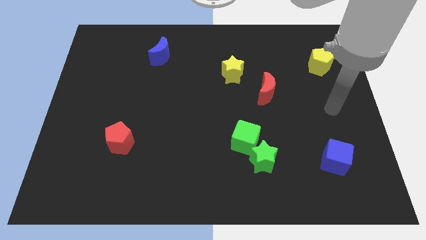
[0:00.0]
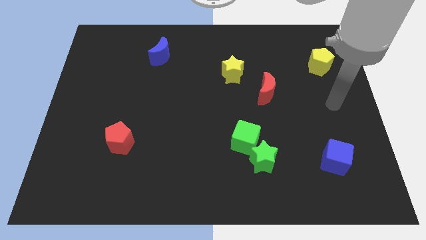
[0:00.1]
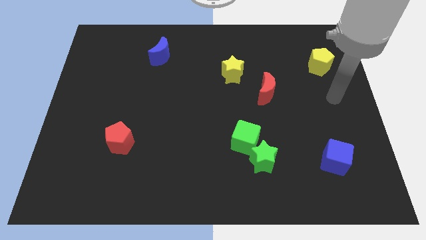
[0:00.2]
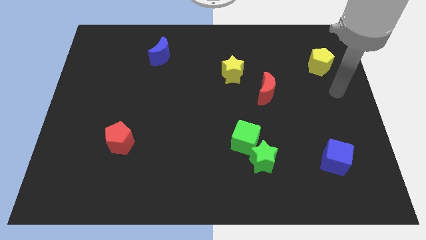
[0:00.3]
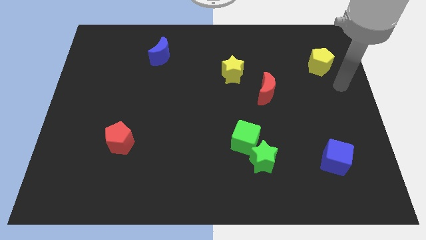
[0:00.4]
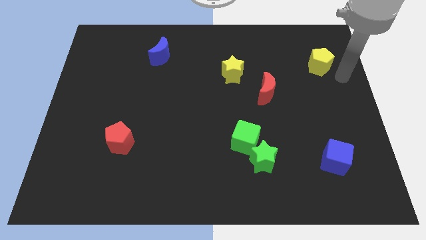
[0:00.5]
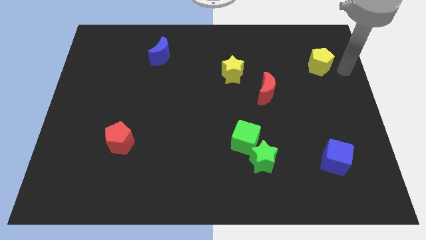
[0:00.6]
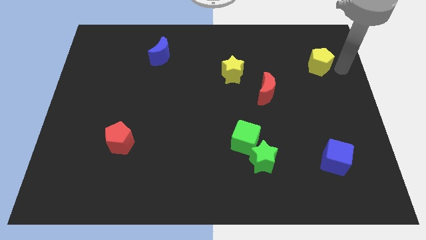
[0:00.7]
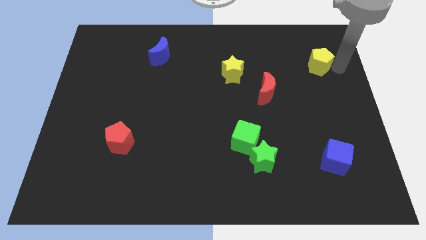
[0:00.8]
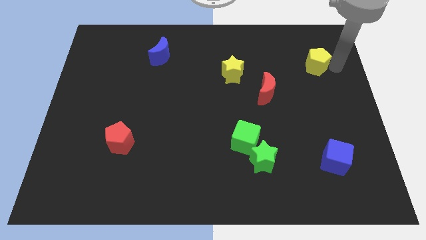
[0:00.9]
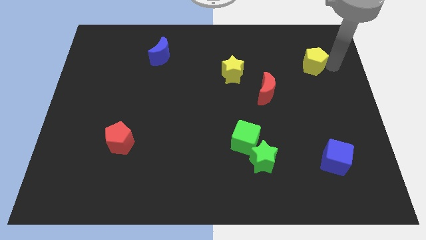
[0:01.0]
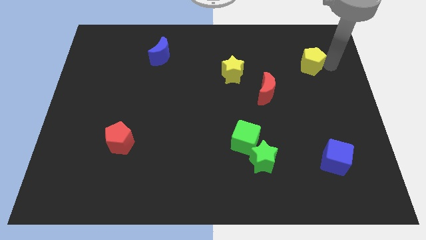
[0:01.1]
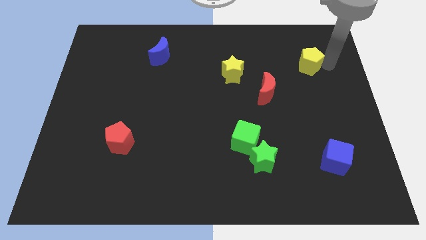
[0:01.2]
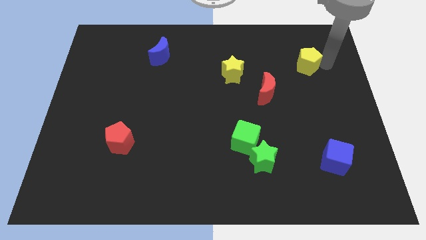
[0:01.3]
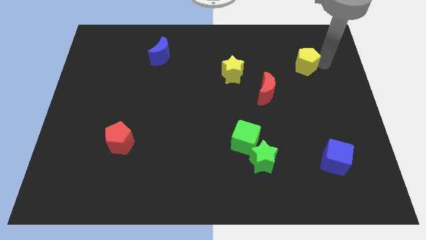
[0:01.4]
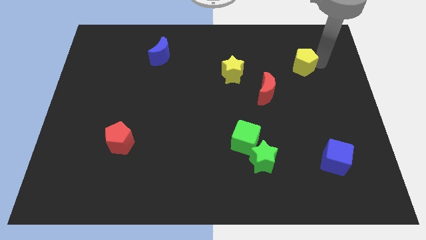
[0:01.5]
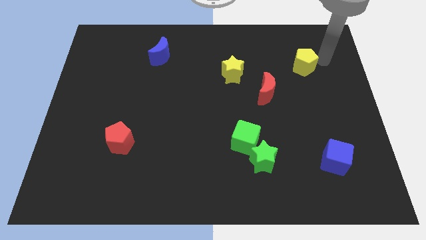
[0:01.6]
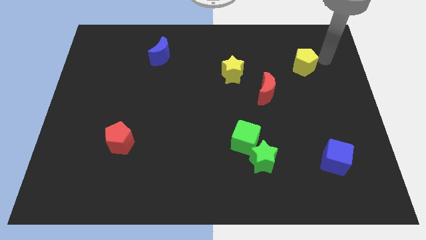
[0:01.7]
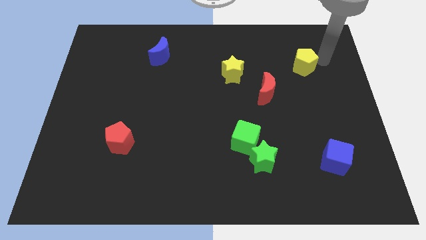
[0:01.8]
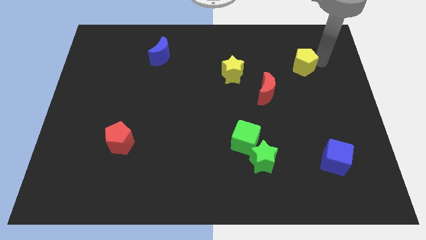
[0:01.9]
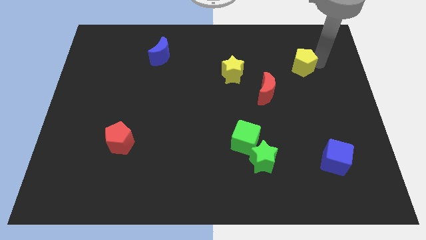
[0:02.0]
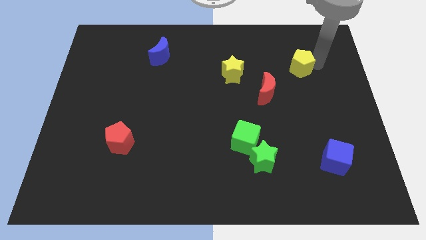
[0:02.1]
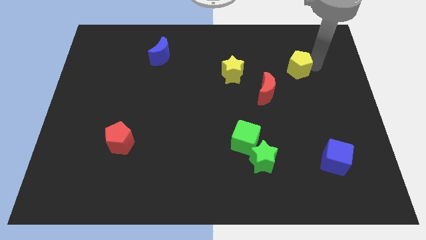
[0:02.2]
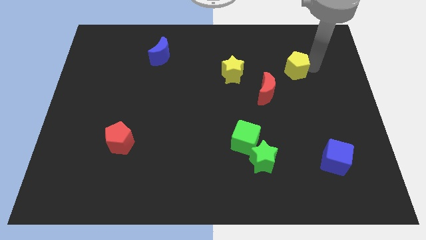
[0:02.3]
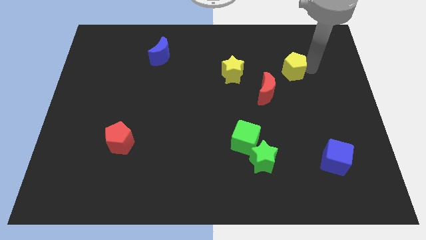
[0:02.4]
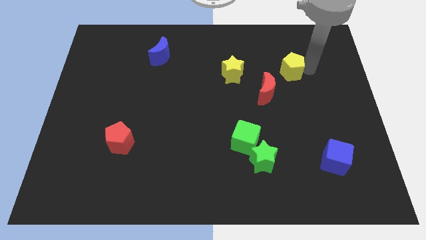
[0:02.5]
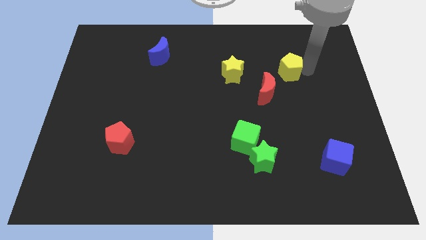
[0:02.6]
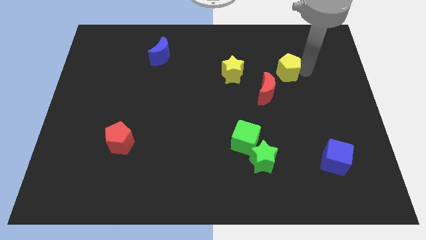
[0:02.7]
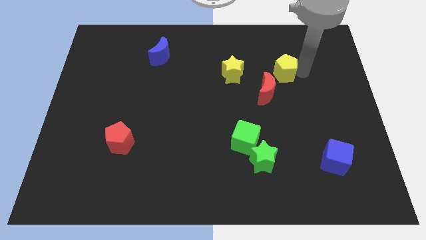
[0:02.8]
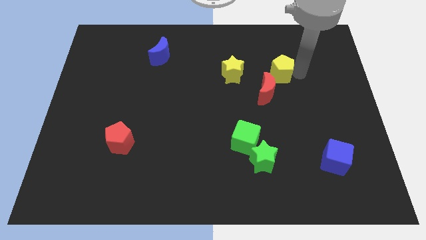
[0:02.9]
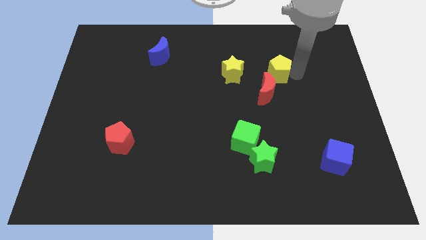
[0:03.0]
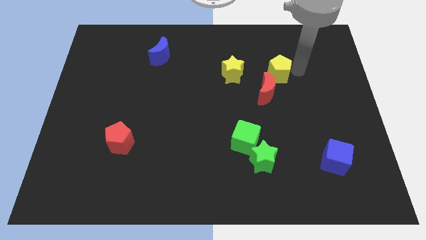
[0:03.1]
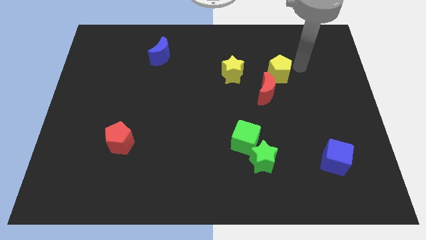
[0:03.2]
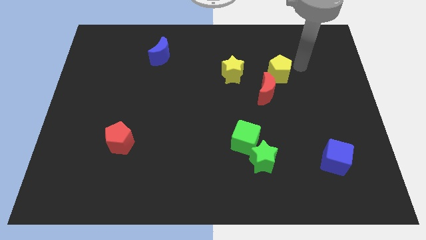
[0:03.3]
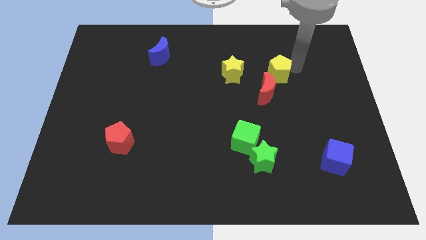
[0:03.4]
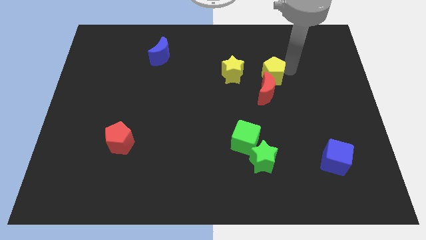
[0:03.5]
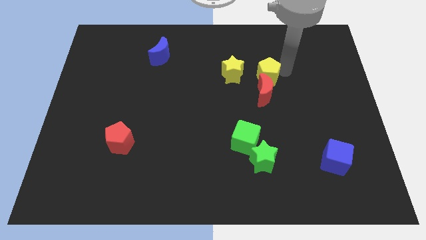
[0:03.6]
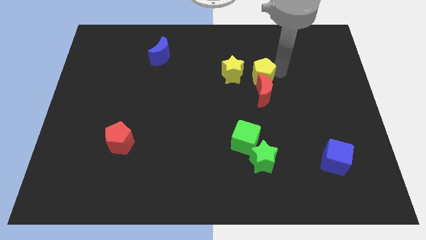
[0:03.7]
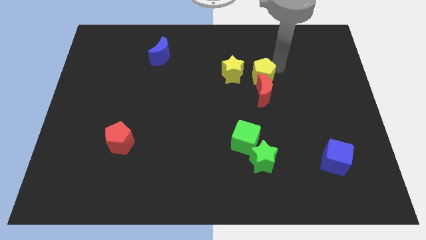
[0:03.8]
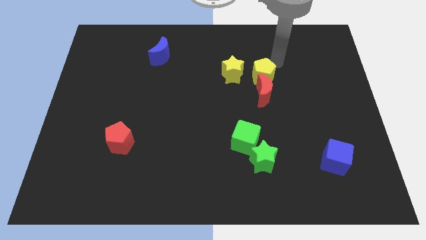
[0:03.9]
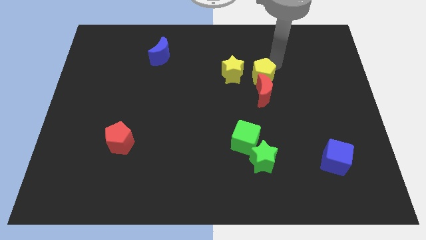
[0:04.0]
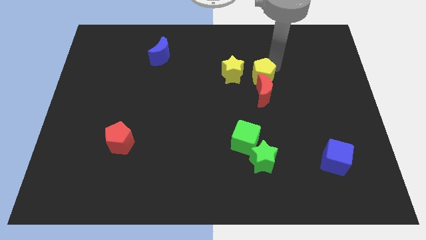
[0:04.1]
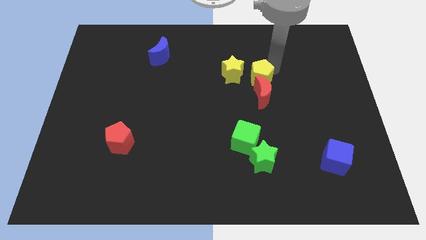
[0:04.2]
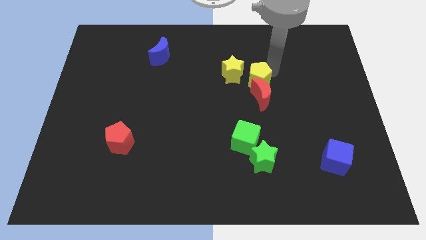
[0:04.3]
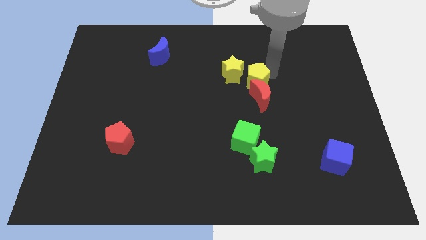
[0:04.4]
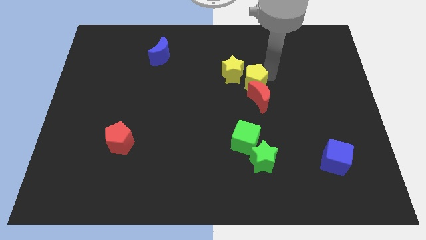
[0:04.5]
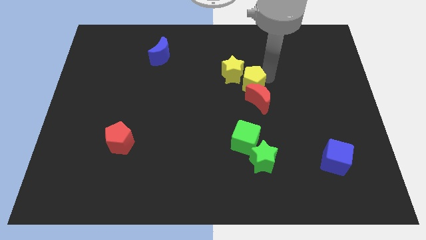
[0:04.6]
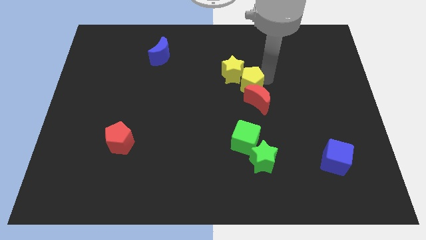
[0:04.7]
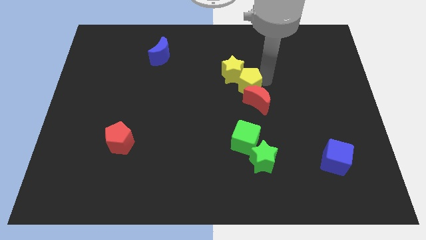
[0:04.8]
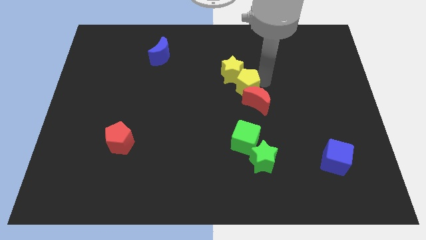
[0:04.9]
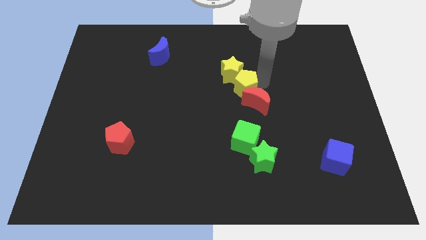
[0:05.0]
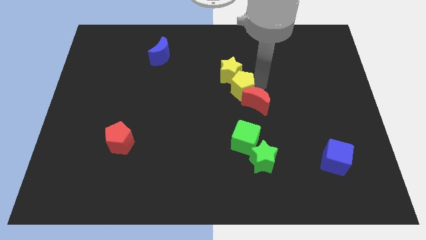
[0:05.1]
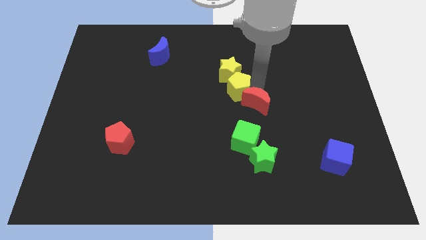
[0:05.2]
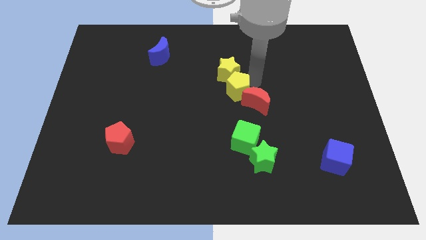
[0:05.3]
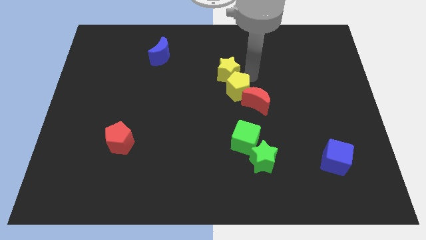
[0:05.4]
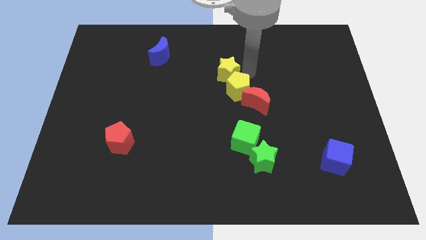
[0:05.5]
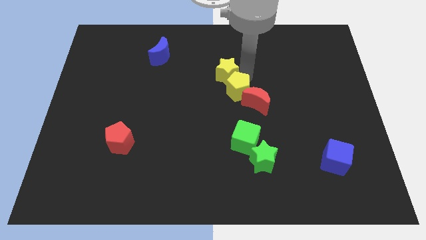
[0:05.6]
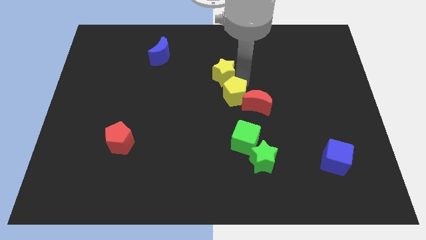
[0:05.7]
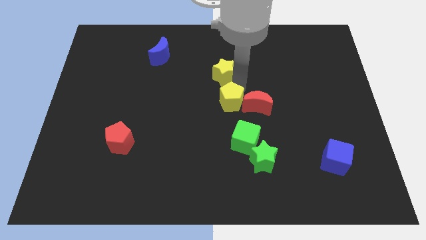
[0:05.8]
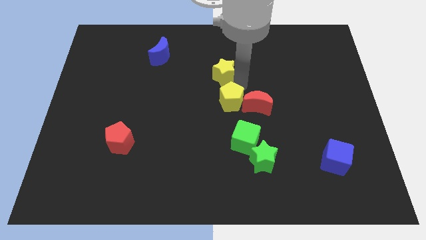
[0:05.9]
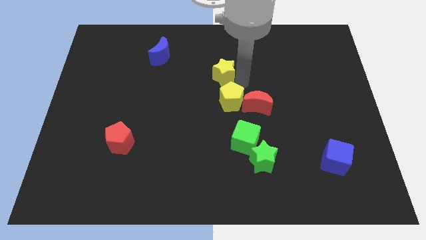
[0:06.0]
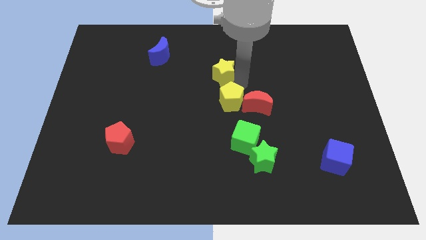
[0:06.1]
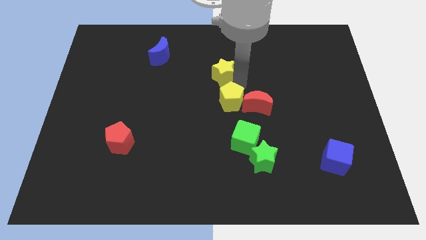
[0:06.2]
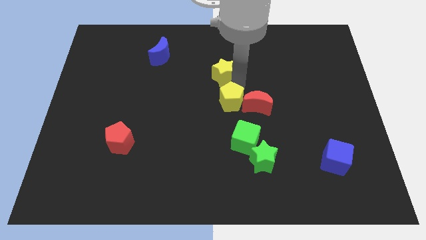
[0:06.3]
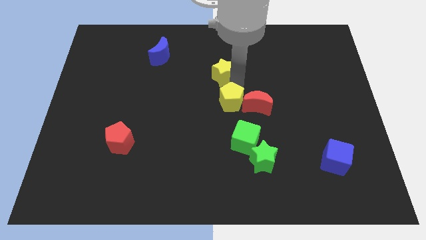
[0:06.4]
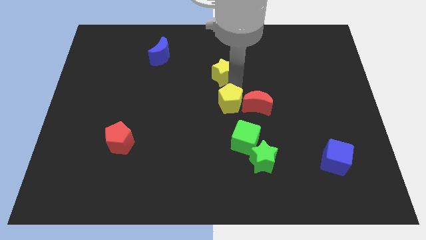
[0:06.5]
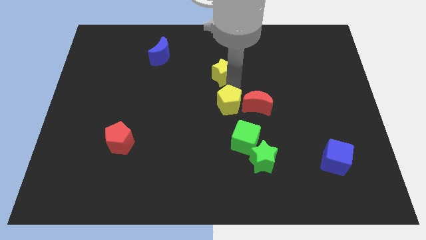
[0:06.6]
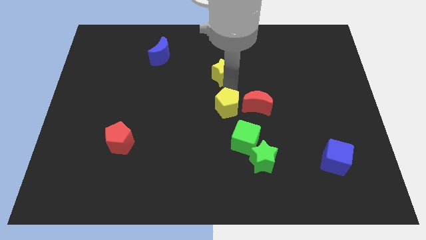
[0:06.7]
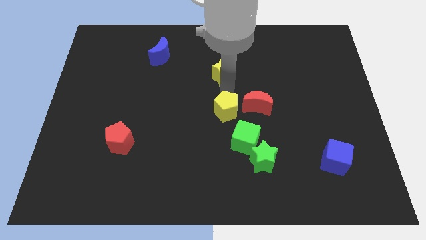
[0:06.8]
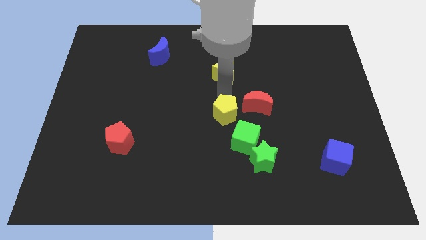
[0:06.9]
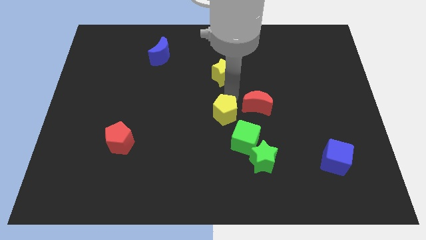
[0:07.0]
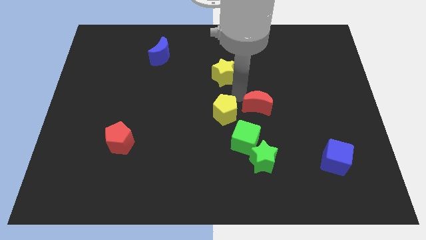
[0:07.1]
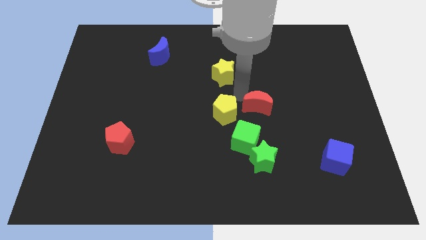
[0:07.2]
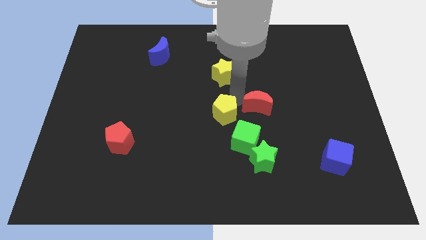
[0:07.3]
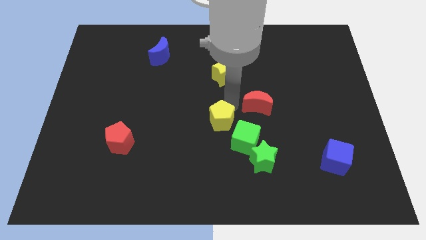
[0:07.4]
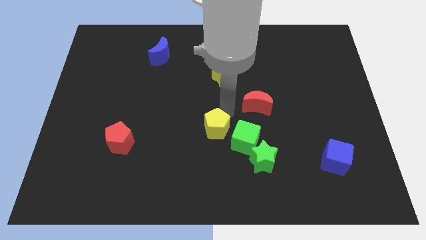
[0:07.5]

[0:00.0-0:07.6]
put the yellow pentagon to the left of the green cube
